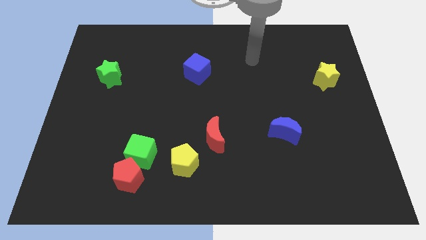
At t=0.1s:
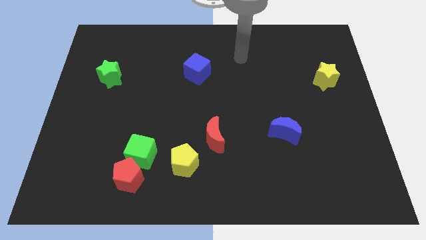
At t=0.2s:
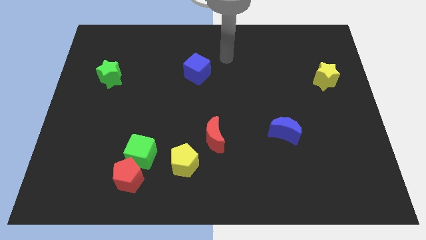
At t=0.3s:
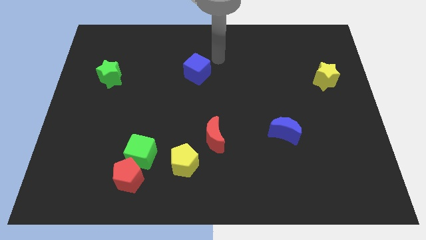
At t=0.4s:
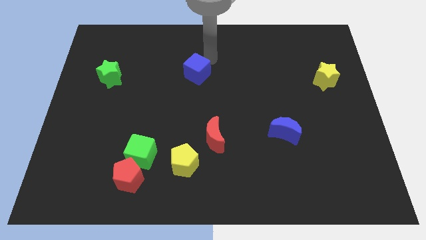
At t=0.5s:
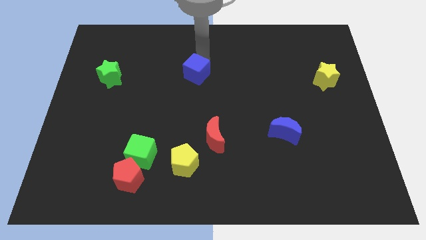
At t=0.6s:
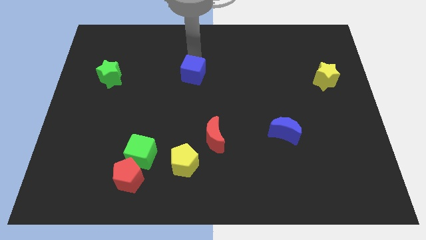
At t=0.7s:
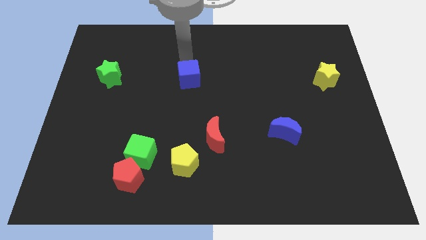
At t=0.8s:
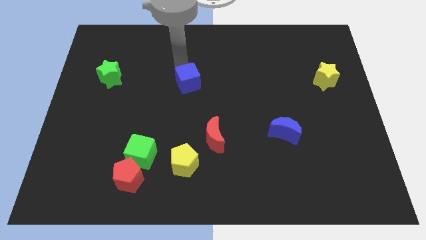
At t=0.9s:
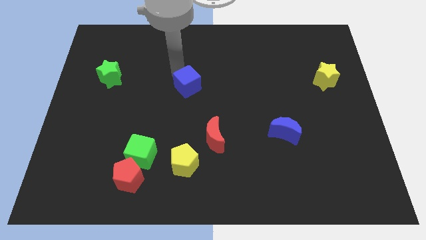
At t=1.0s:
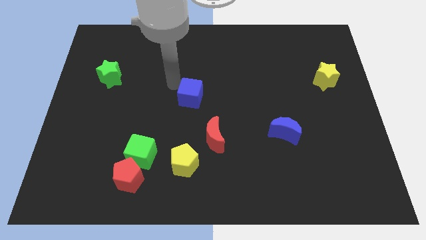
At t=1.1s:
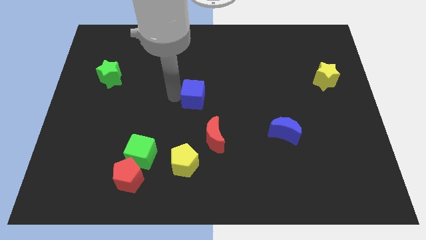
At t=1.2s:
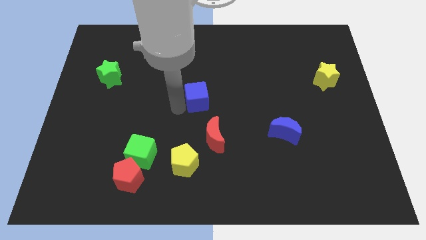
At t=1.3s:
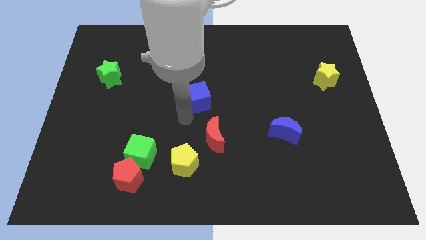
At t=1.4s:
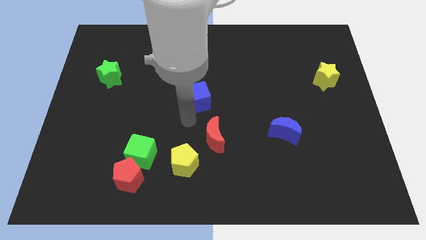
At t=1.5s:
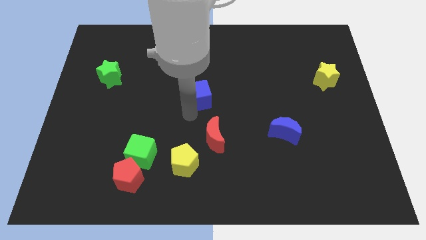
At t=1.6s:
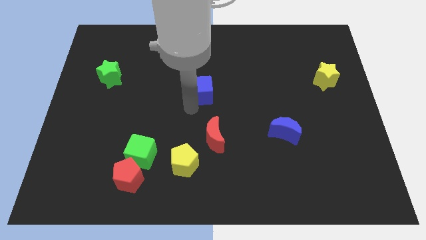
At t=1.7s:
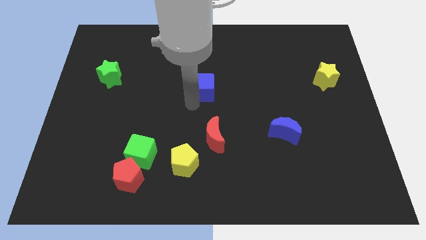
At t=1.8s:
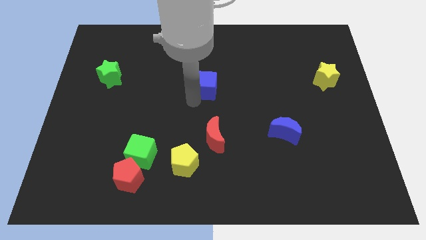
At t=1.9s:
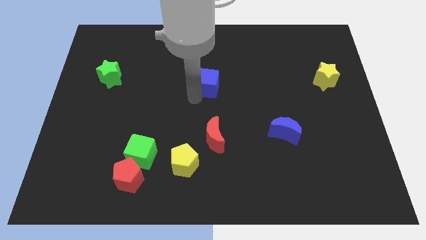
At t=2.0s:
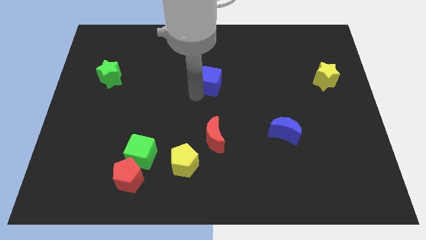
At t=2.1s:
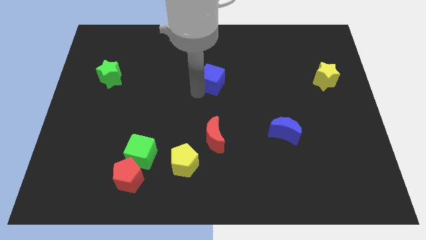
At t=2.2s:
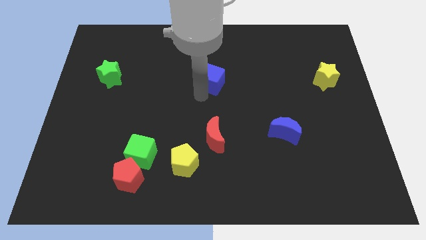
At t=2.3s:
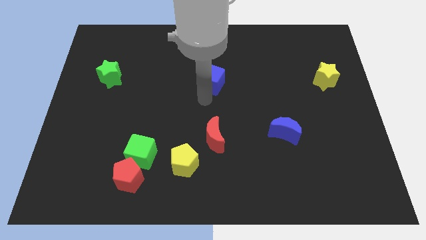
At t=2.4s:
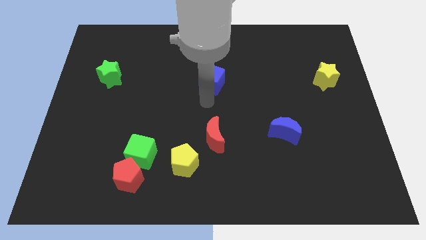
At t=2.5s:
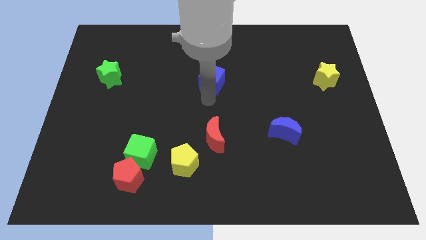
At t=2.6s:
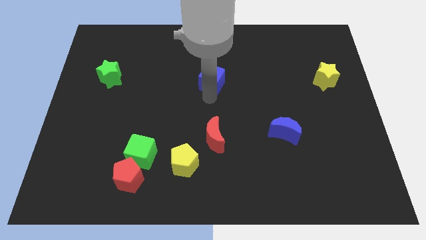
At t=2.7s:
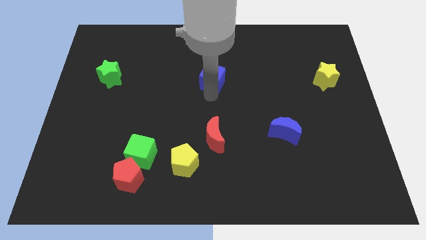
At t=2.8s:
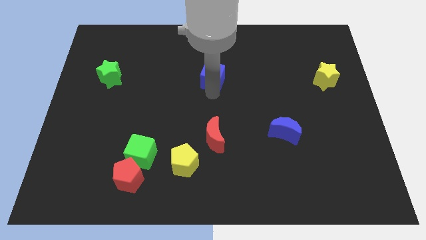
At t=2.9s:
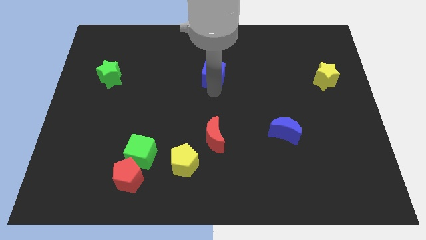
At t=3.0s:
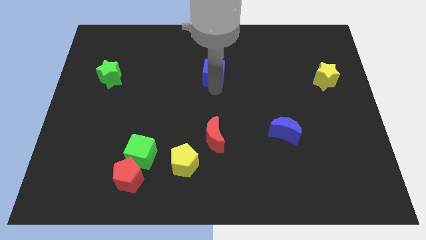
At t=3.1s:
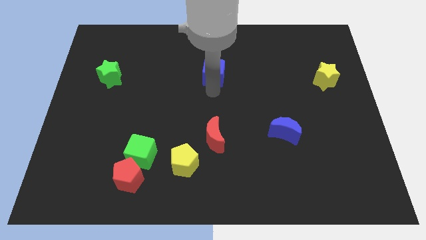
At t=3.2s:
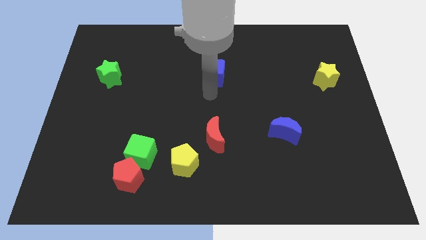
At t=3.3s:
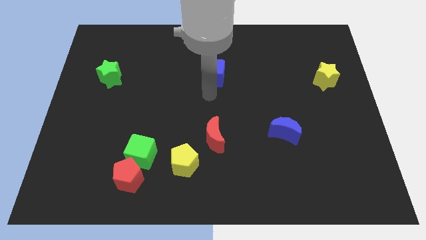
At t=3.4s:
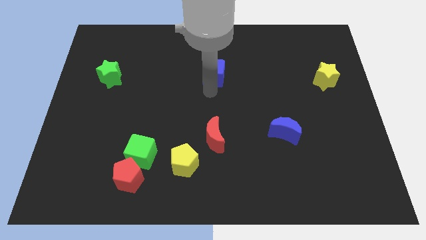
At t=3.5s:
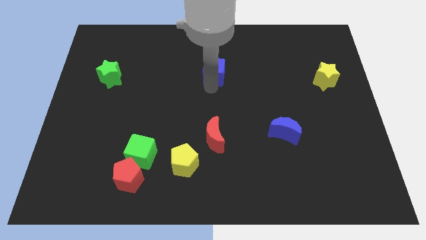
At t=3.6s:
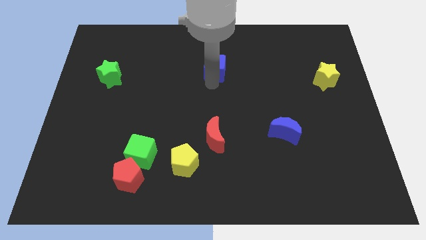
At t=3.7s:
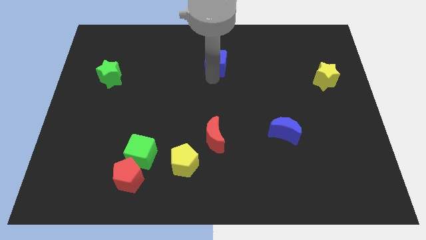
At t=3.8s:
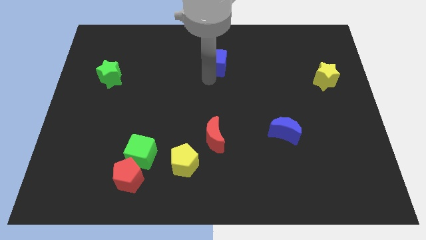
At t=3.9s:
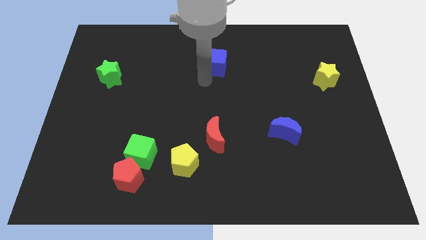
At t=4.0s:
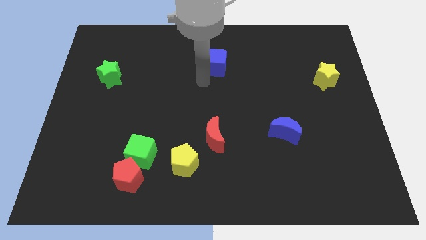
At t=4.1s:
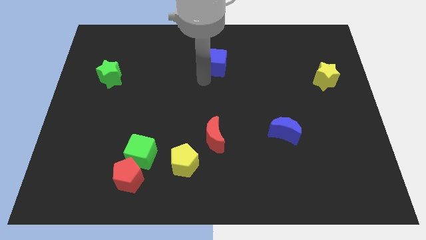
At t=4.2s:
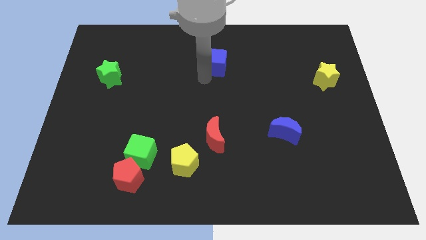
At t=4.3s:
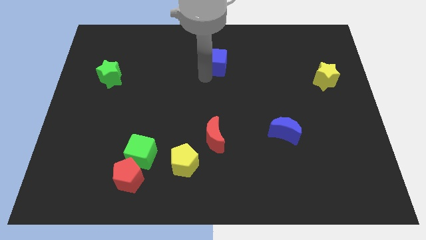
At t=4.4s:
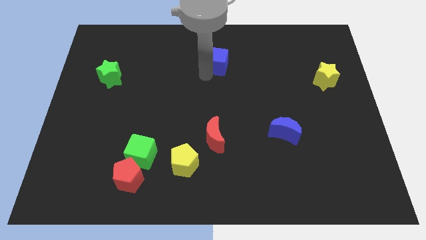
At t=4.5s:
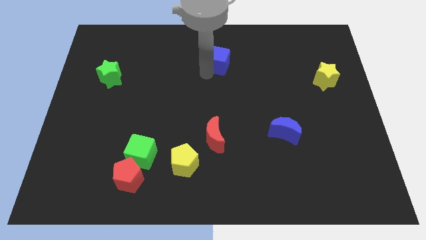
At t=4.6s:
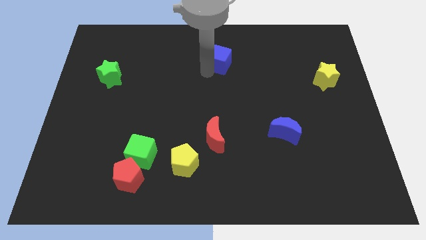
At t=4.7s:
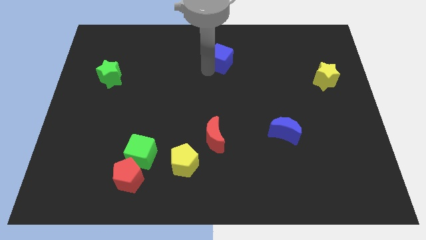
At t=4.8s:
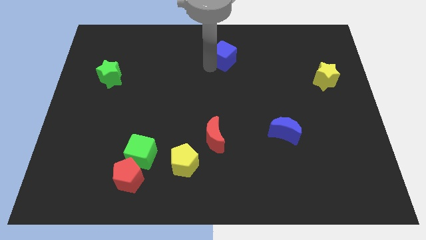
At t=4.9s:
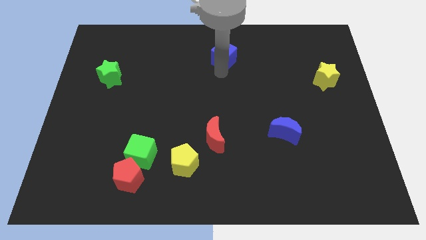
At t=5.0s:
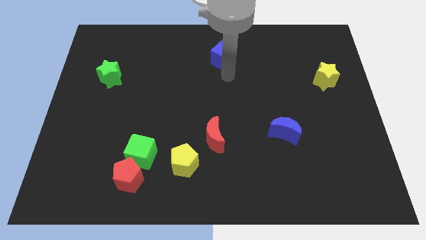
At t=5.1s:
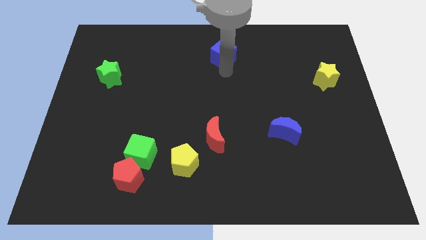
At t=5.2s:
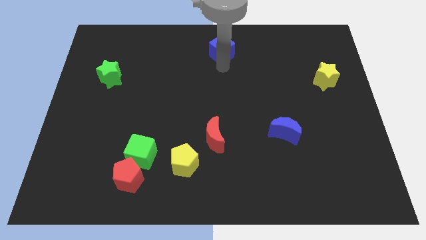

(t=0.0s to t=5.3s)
slide the blue cube to the top side
